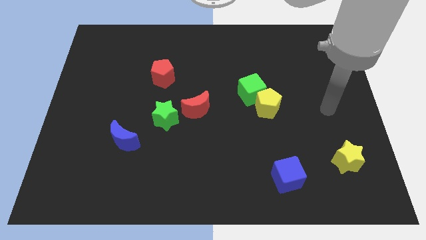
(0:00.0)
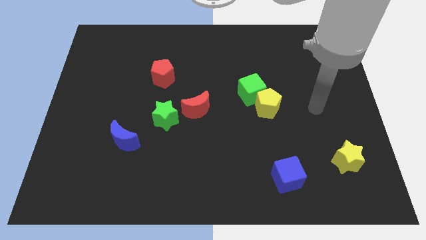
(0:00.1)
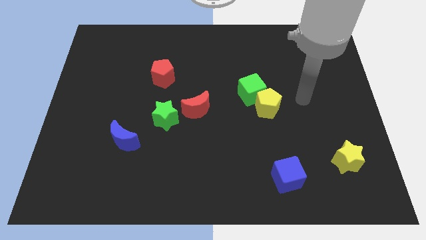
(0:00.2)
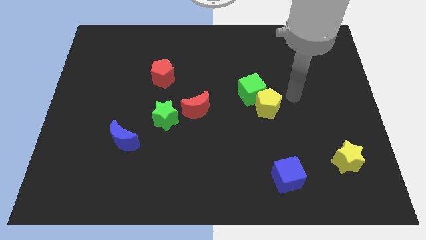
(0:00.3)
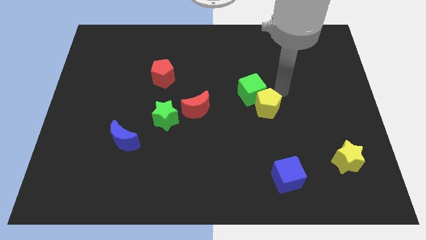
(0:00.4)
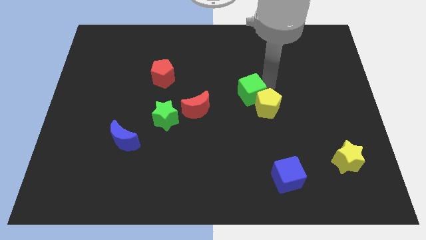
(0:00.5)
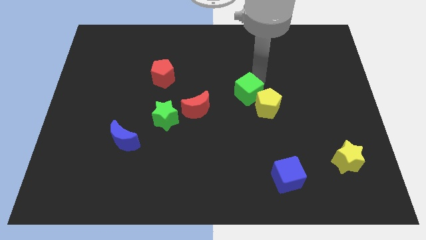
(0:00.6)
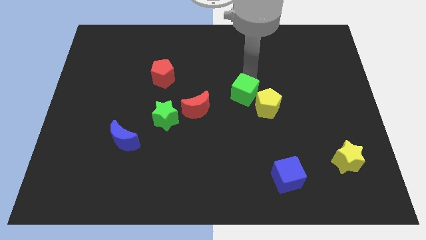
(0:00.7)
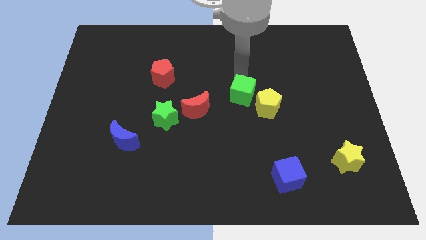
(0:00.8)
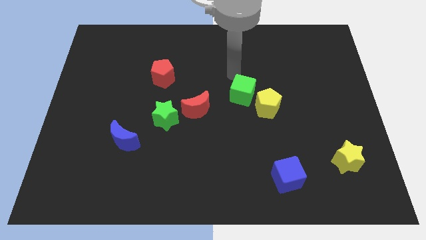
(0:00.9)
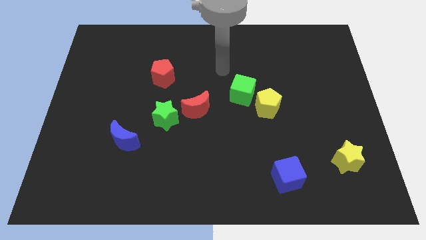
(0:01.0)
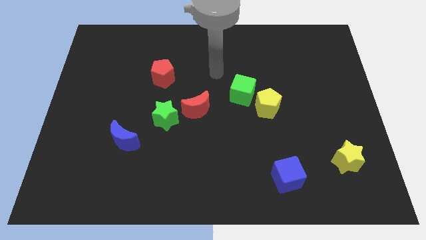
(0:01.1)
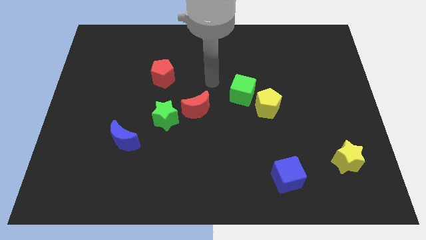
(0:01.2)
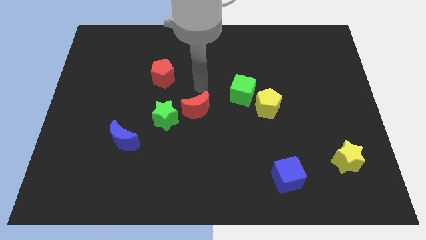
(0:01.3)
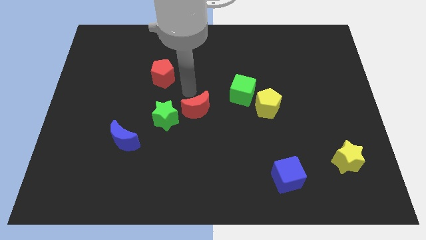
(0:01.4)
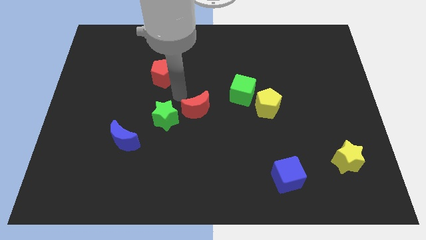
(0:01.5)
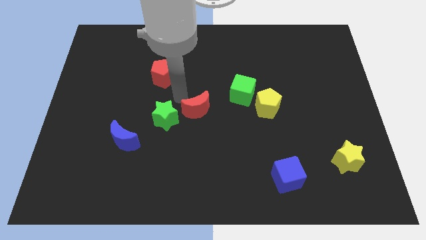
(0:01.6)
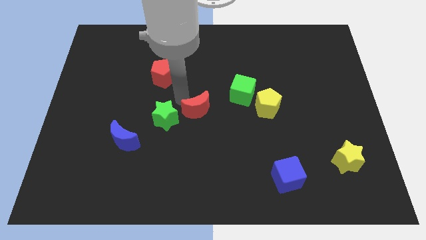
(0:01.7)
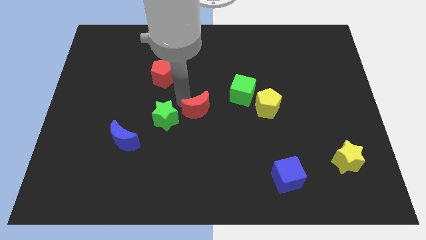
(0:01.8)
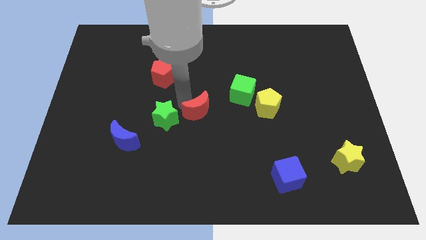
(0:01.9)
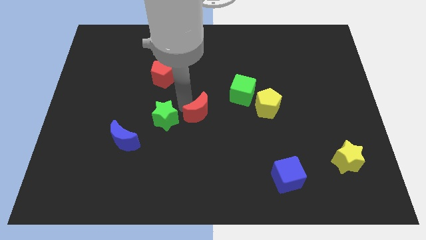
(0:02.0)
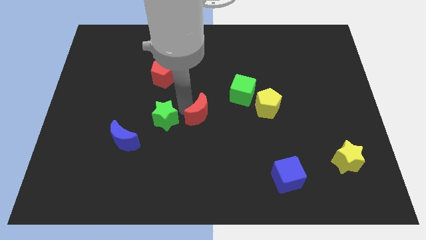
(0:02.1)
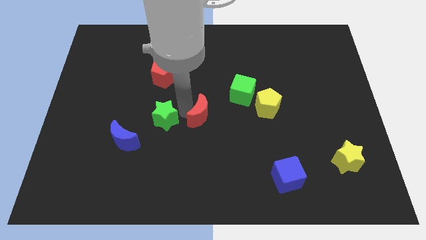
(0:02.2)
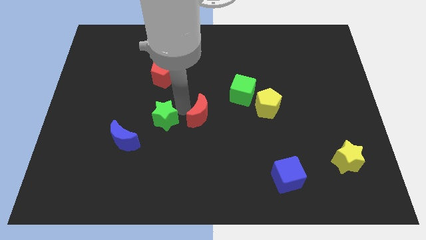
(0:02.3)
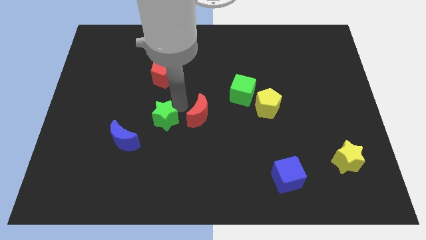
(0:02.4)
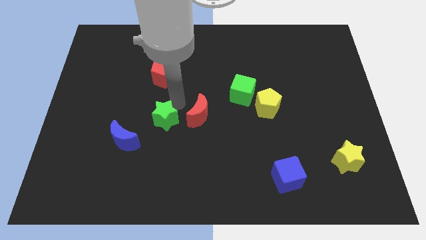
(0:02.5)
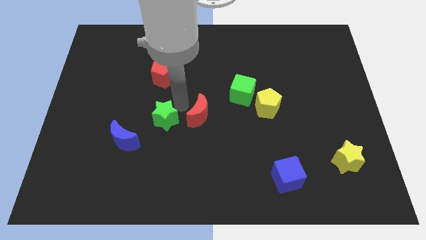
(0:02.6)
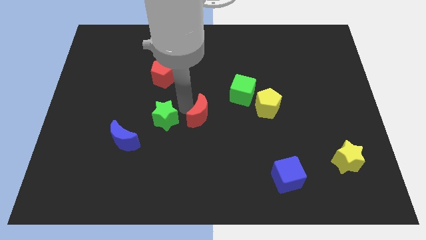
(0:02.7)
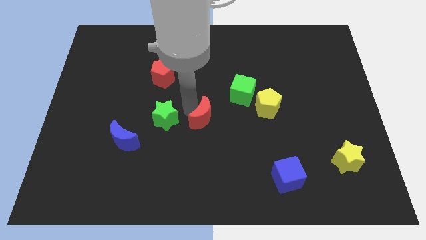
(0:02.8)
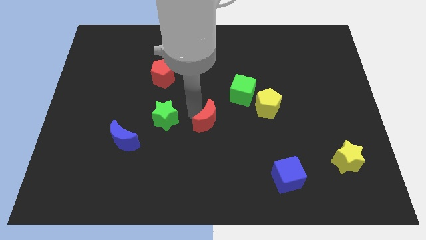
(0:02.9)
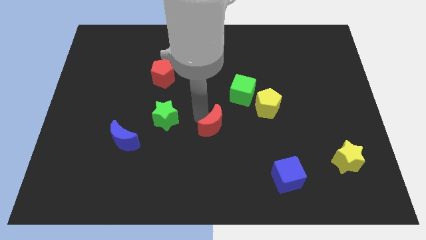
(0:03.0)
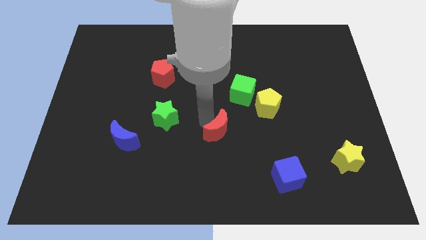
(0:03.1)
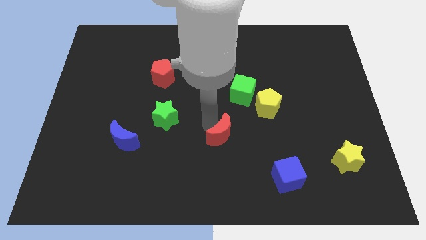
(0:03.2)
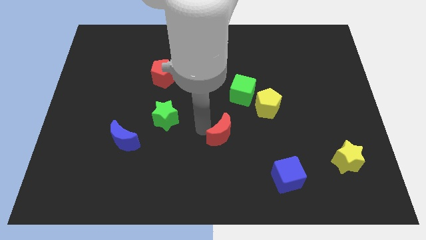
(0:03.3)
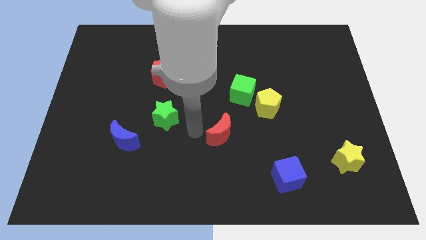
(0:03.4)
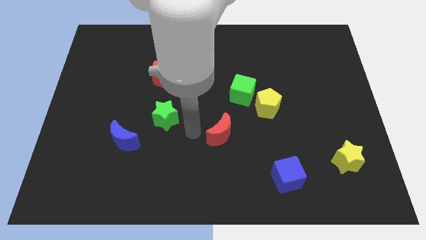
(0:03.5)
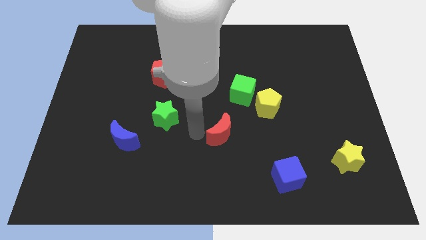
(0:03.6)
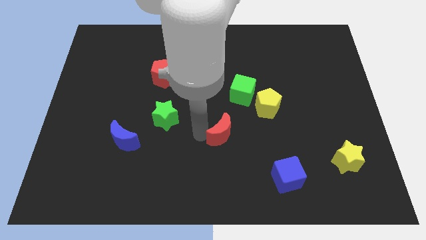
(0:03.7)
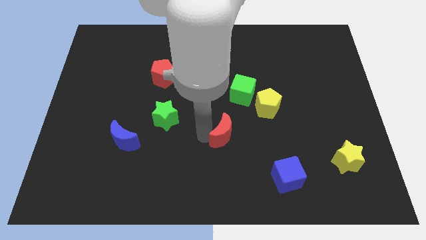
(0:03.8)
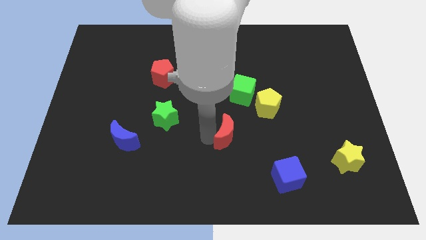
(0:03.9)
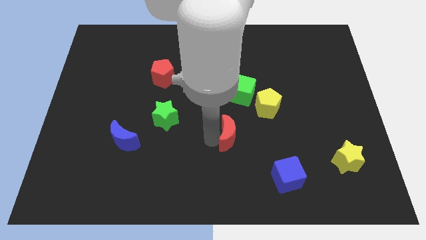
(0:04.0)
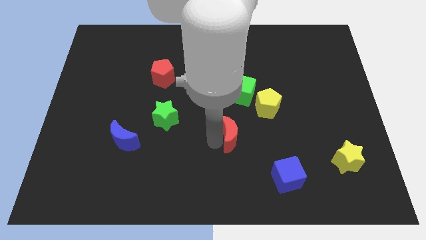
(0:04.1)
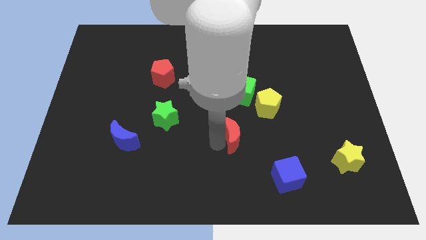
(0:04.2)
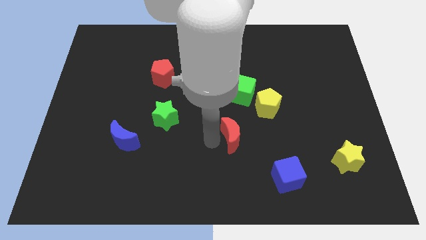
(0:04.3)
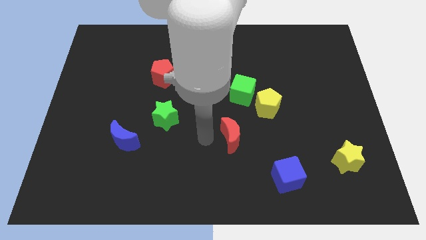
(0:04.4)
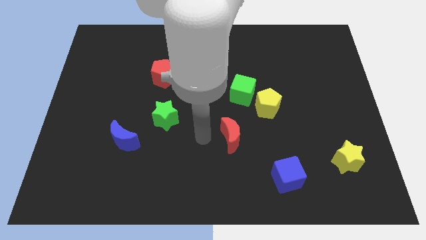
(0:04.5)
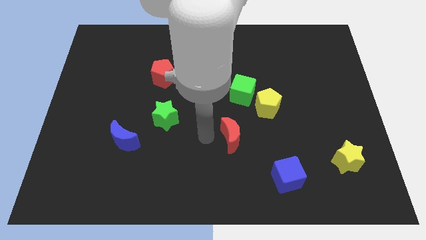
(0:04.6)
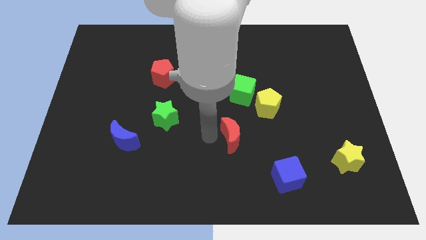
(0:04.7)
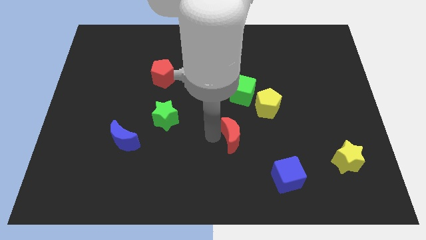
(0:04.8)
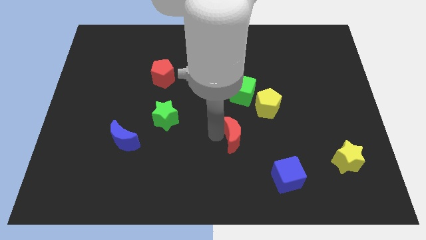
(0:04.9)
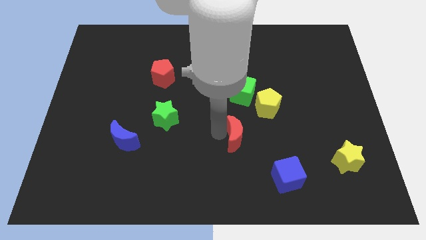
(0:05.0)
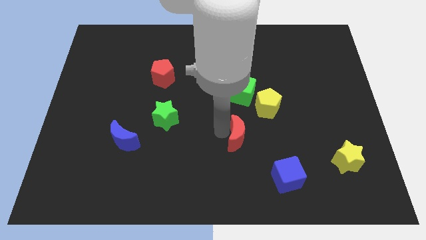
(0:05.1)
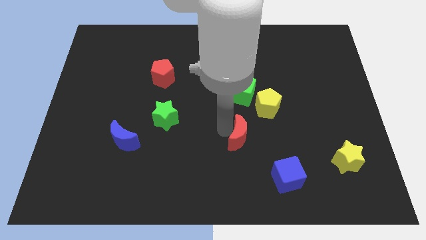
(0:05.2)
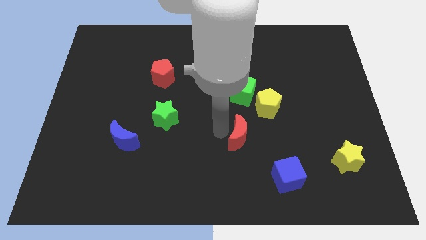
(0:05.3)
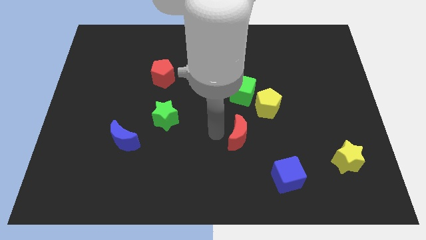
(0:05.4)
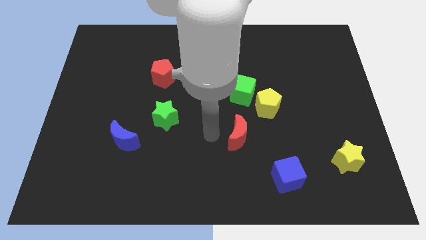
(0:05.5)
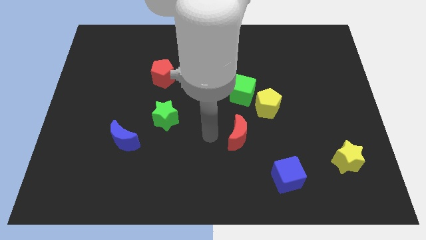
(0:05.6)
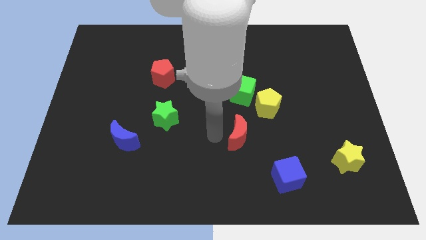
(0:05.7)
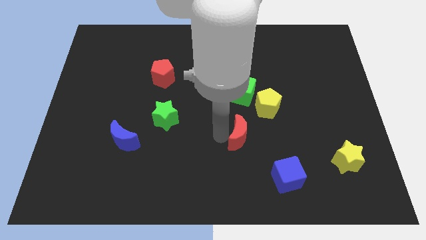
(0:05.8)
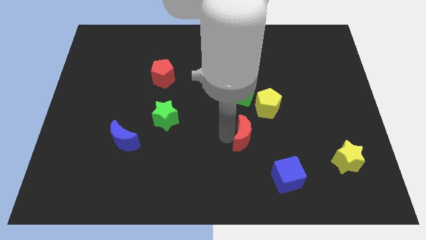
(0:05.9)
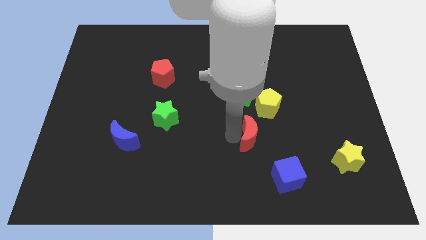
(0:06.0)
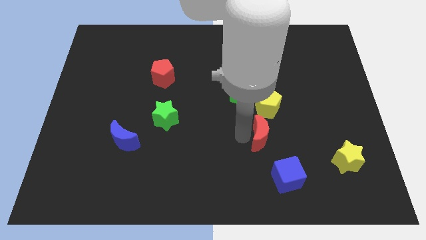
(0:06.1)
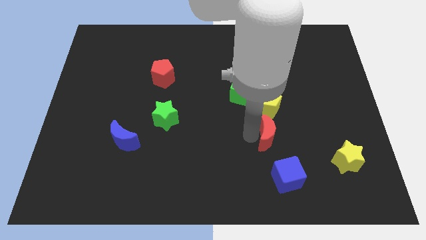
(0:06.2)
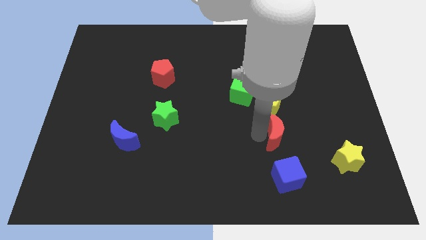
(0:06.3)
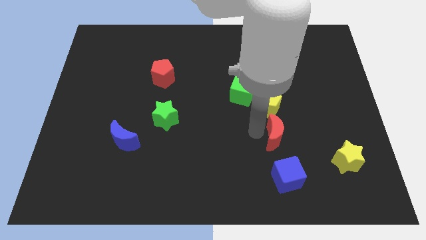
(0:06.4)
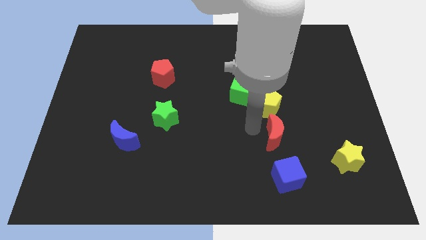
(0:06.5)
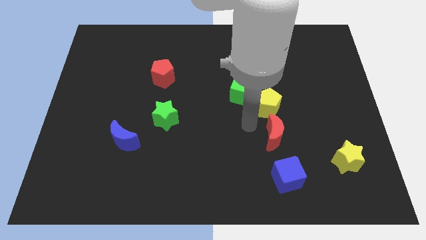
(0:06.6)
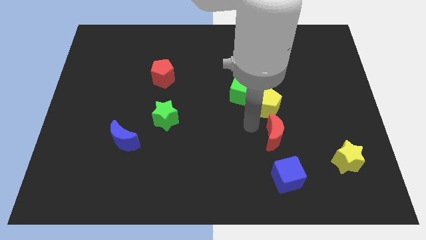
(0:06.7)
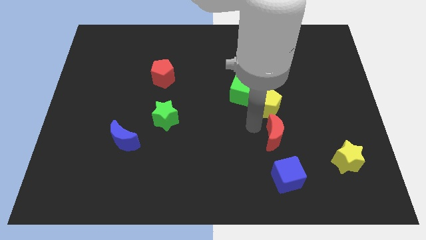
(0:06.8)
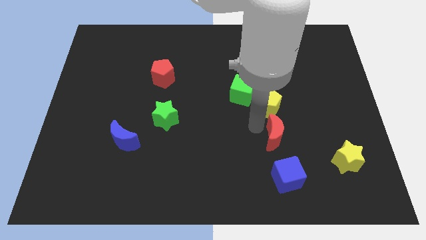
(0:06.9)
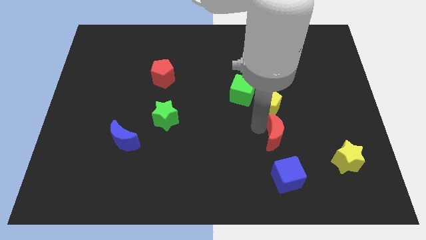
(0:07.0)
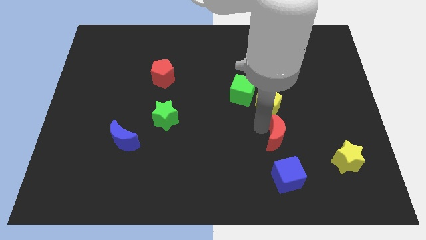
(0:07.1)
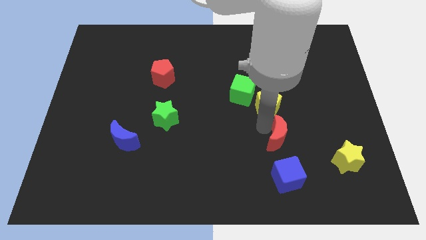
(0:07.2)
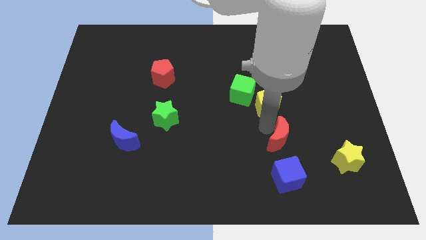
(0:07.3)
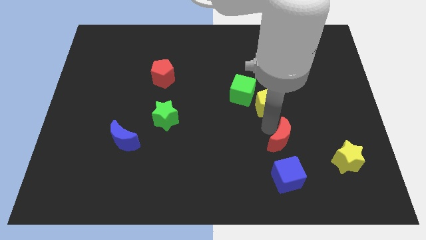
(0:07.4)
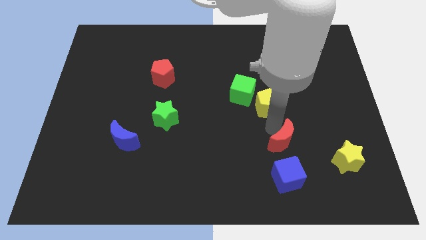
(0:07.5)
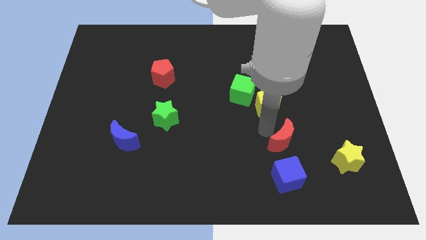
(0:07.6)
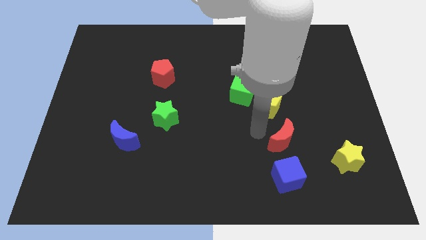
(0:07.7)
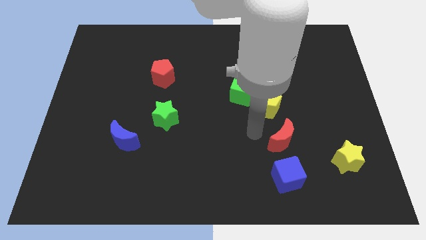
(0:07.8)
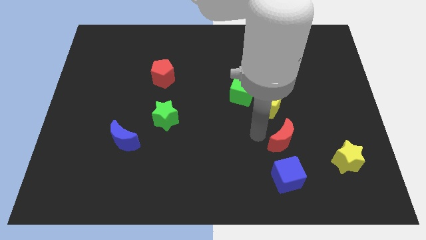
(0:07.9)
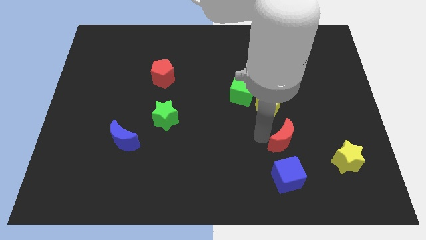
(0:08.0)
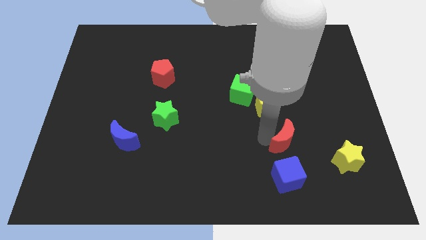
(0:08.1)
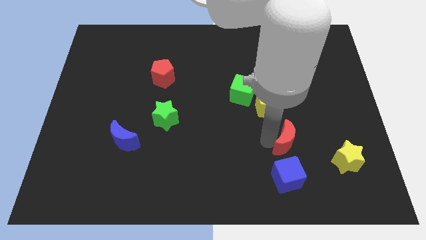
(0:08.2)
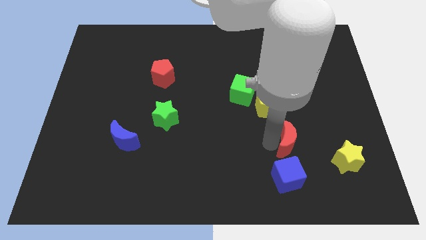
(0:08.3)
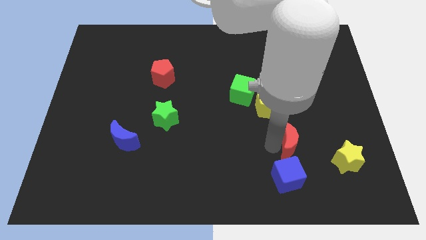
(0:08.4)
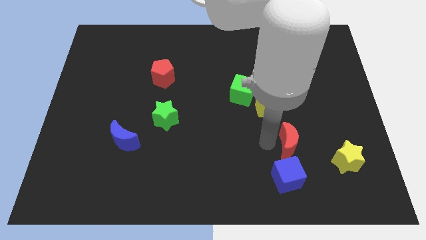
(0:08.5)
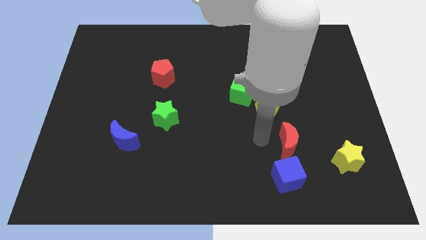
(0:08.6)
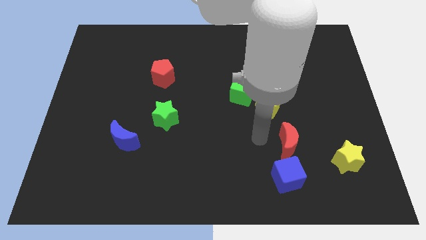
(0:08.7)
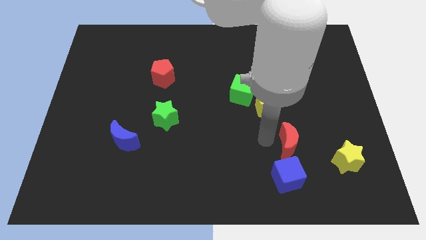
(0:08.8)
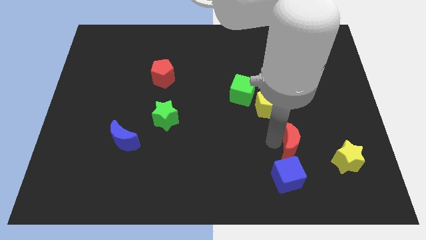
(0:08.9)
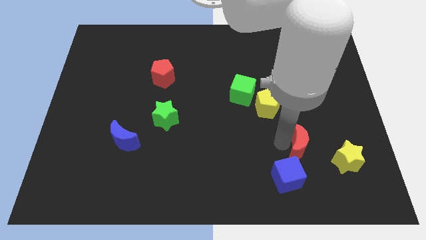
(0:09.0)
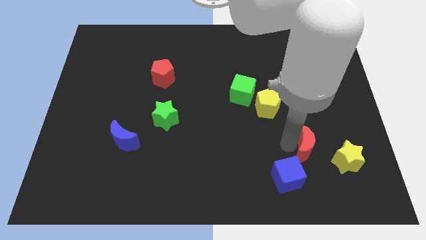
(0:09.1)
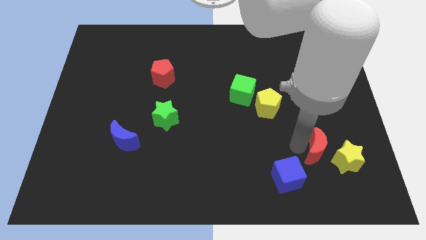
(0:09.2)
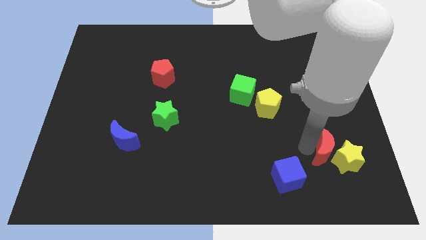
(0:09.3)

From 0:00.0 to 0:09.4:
put the red moon close to the yellow star
